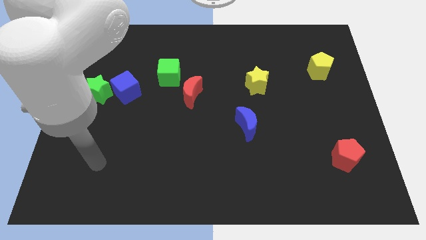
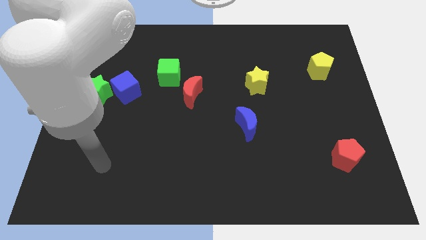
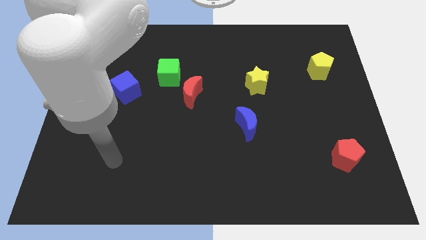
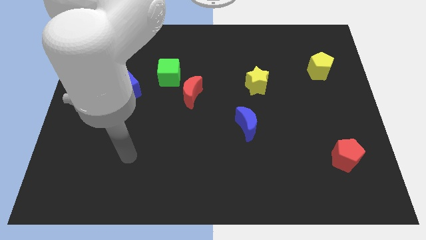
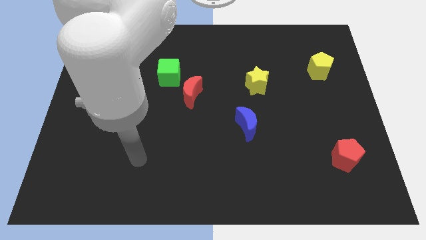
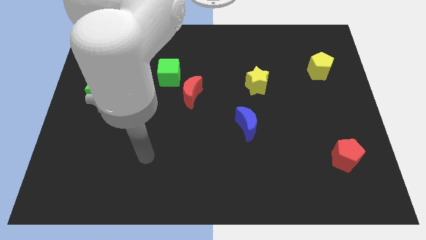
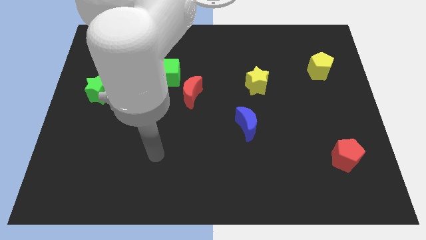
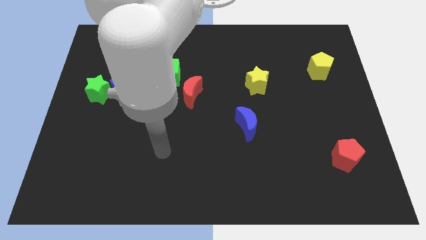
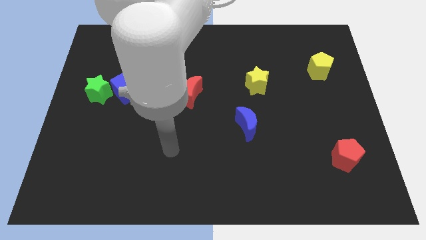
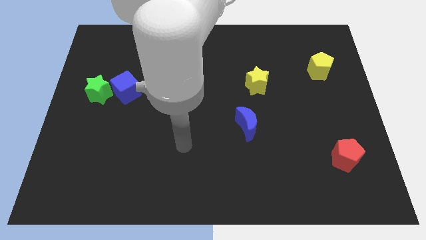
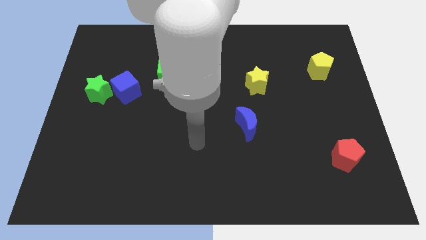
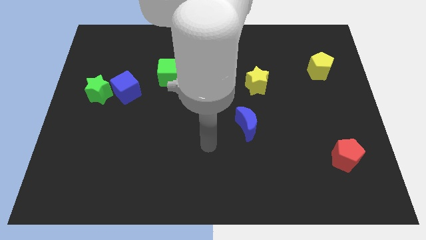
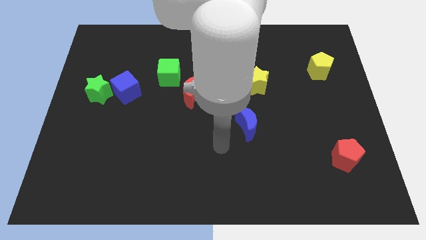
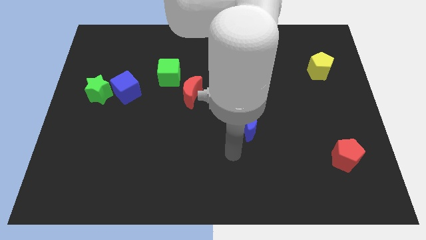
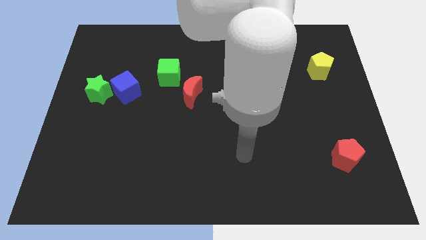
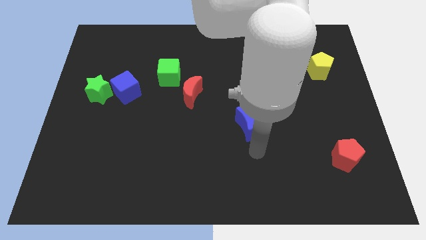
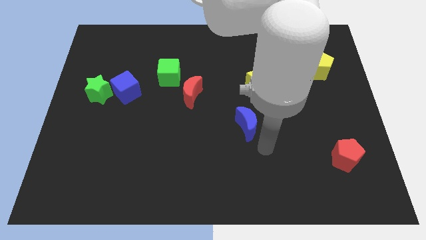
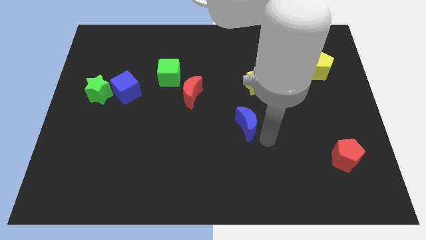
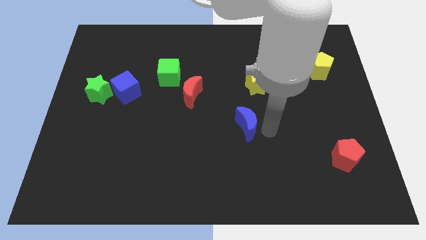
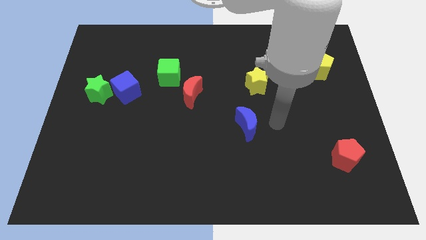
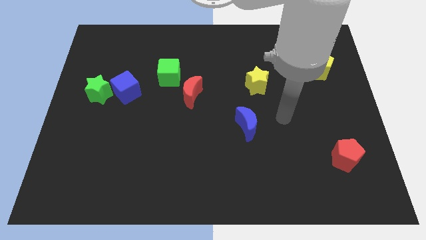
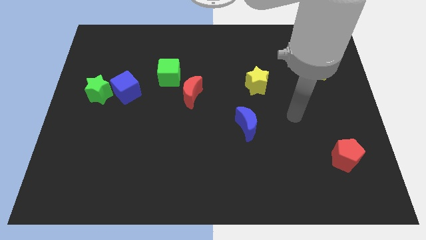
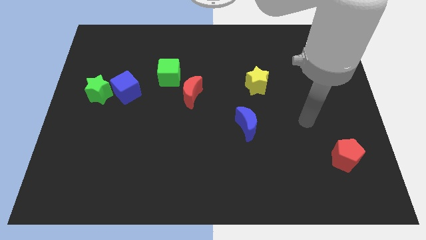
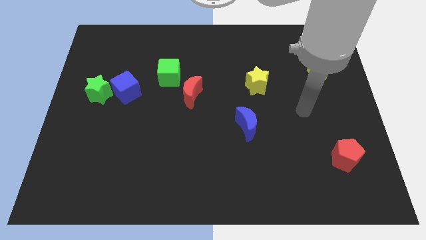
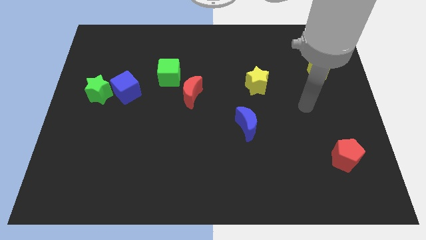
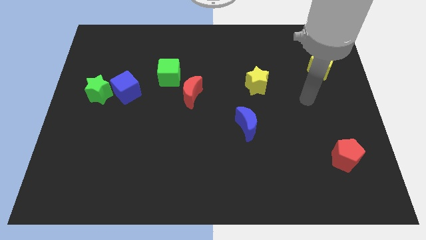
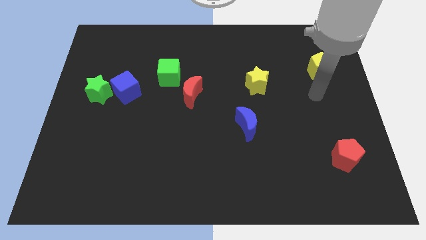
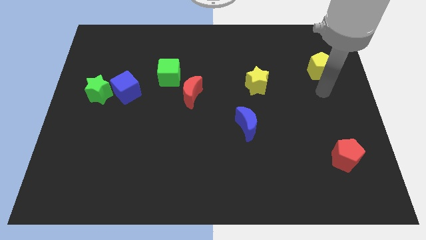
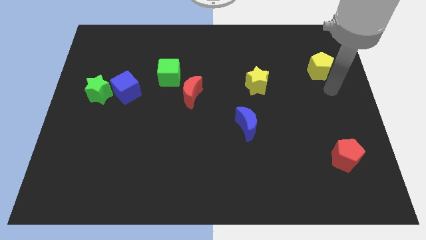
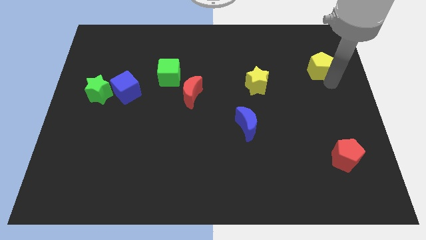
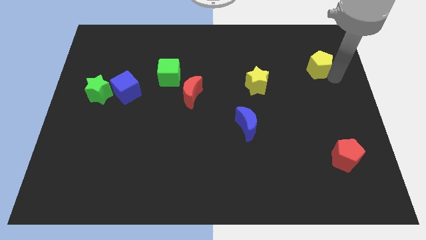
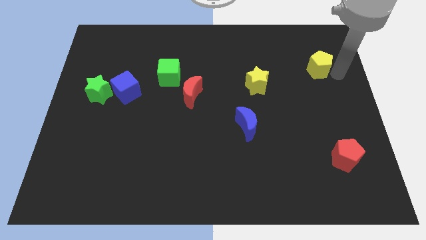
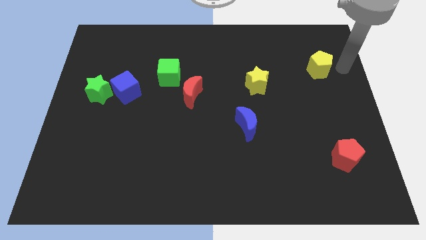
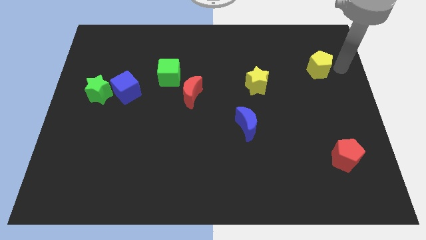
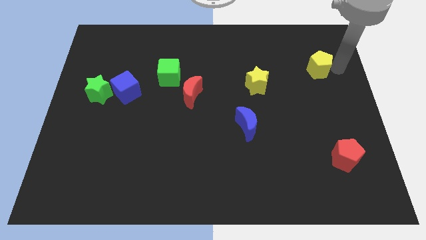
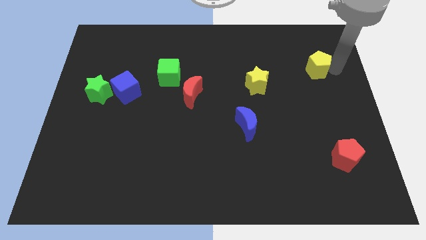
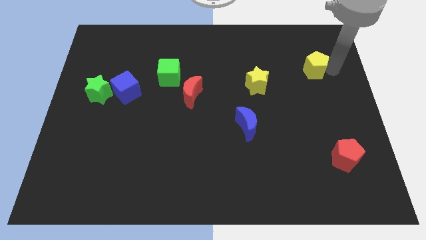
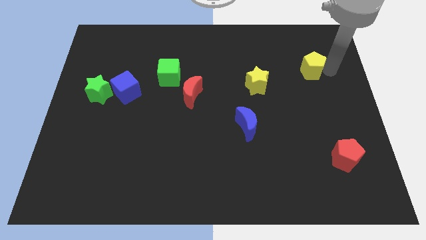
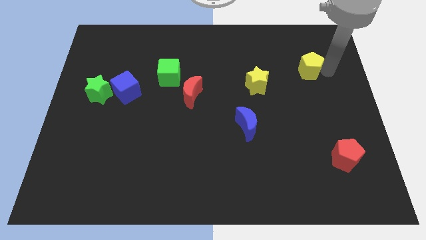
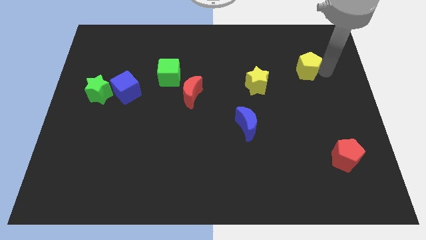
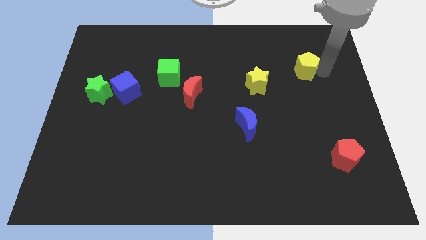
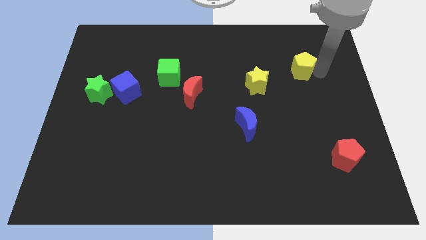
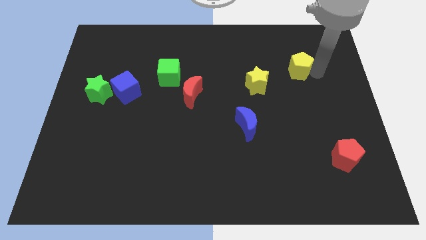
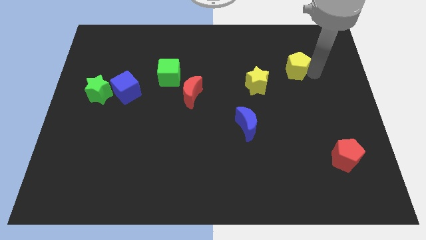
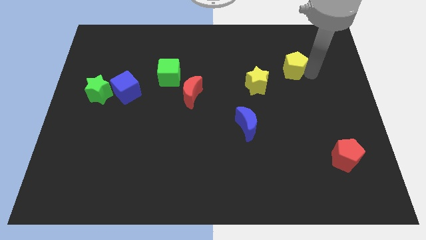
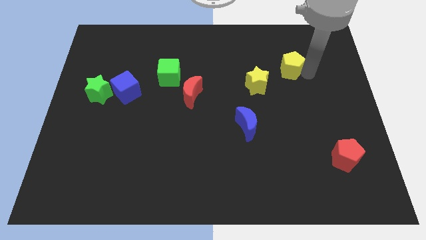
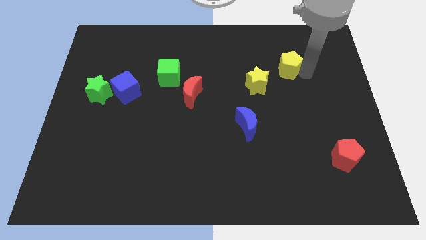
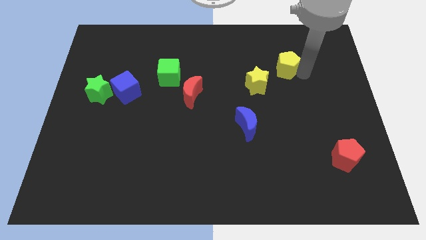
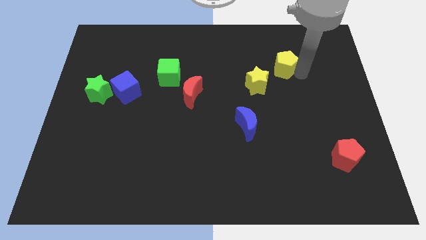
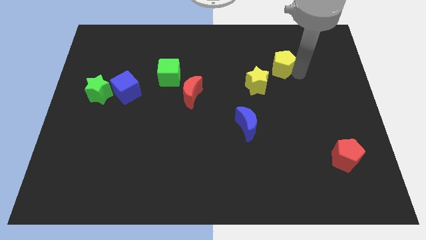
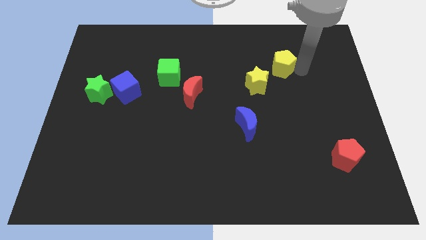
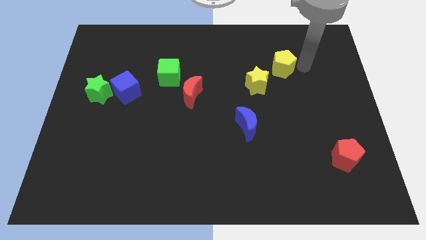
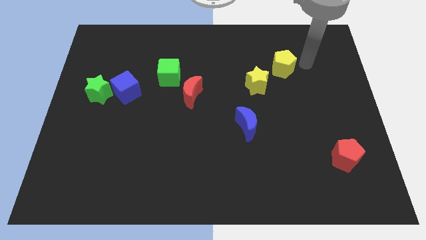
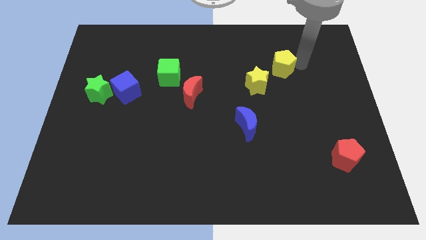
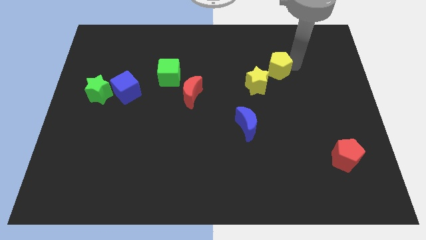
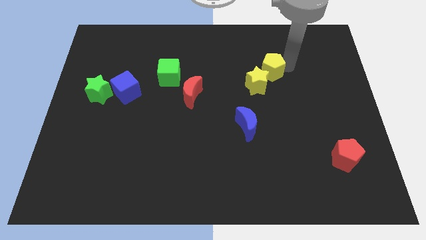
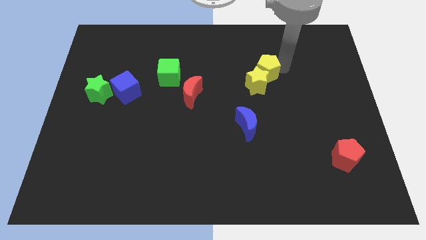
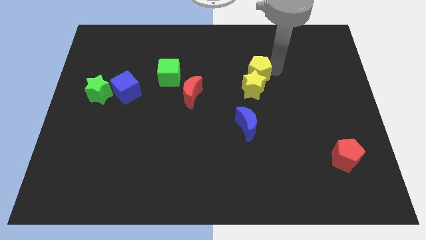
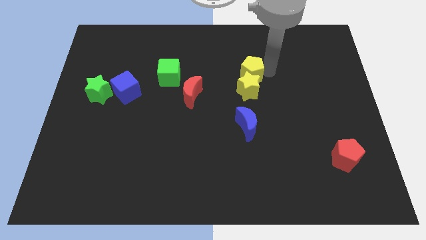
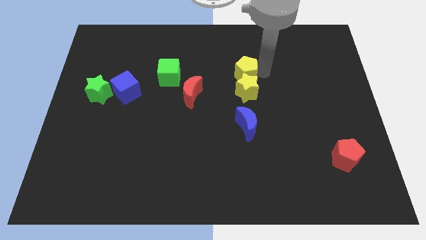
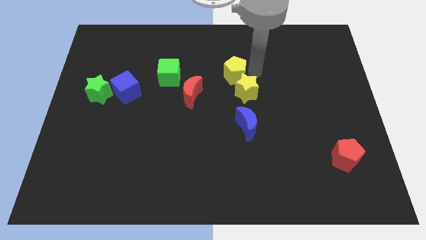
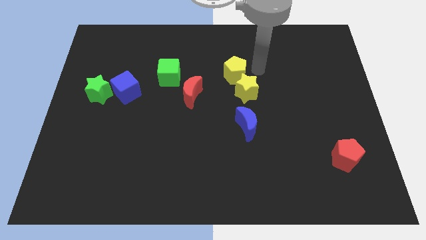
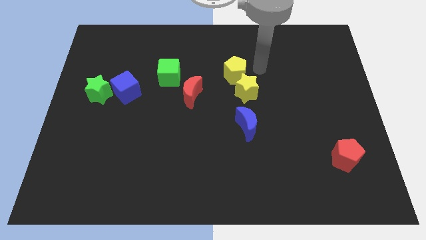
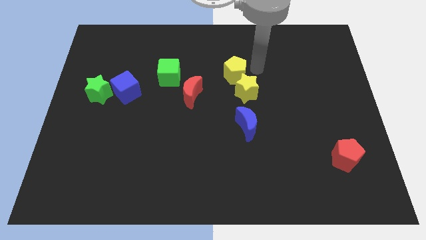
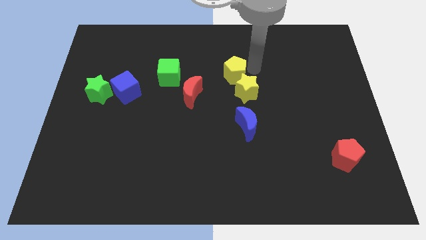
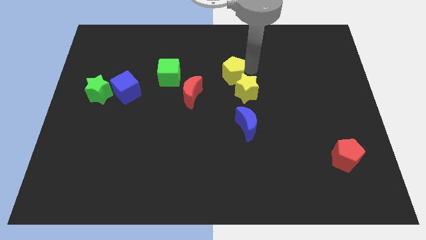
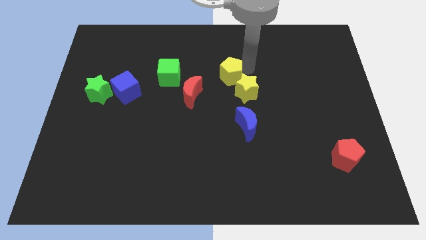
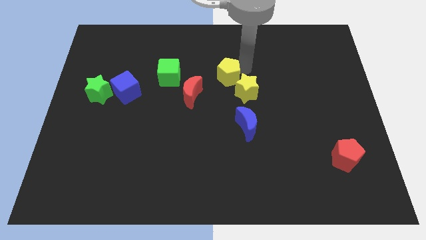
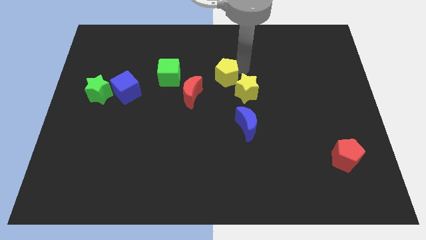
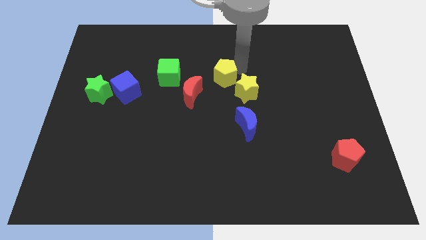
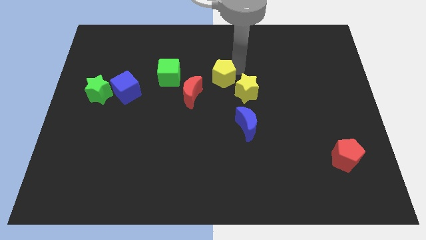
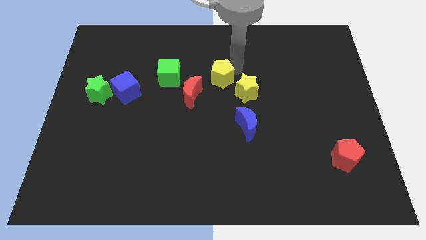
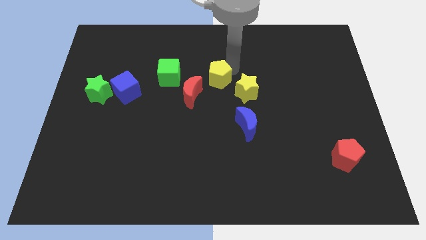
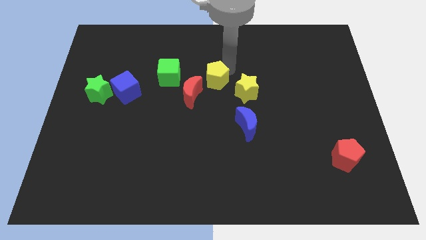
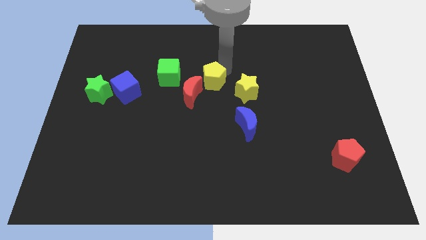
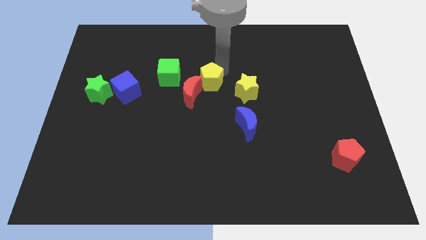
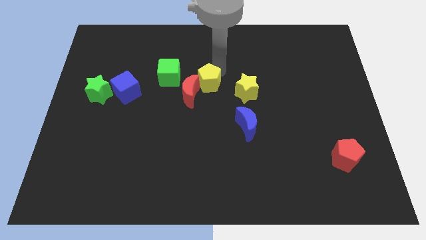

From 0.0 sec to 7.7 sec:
move the yellow pentagon towards the red moon
